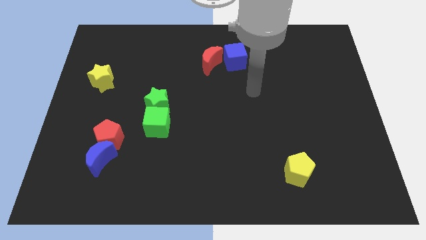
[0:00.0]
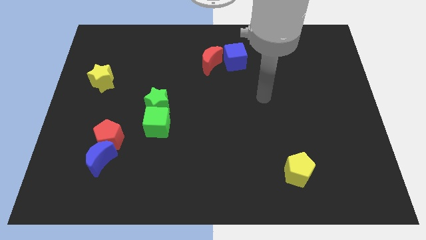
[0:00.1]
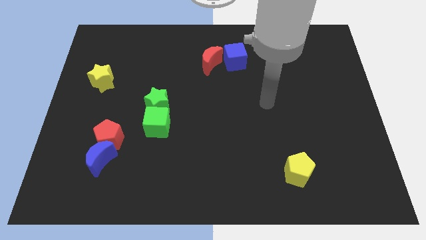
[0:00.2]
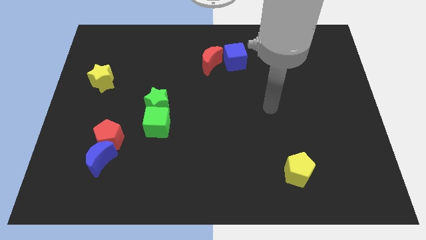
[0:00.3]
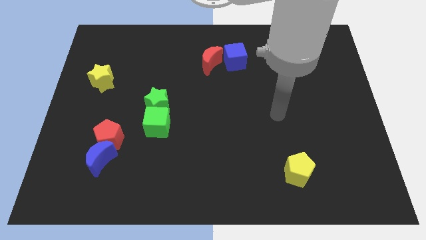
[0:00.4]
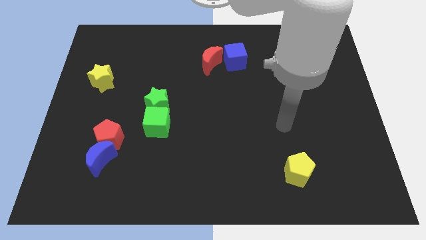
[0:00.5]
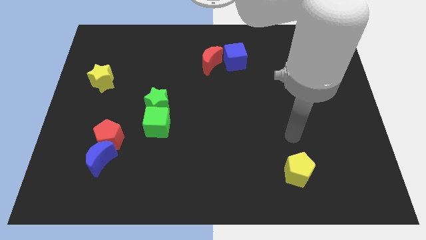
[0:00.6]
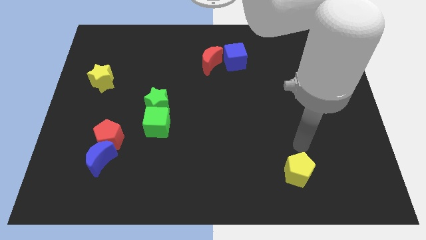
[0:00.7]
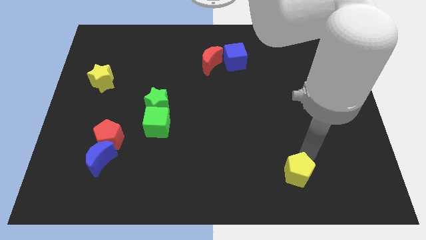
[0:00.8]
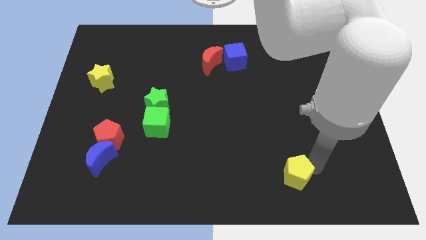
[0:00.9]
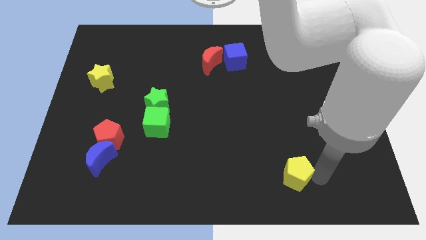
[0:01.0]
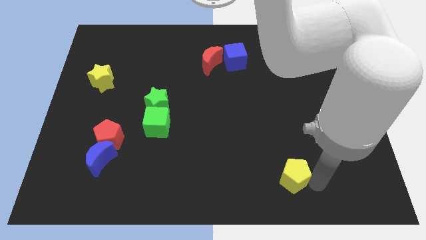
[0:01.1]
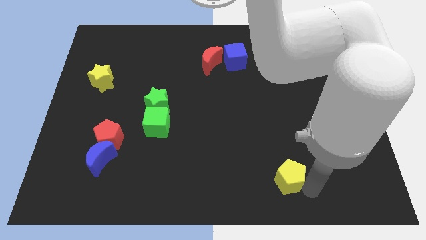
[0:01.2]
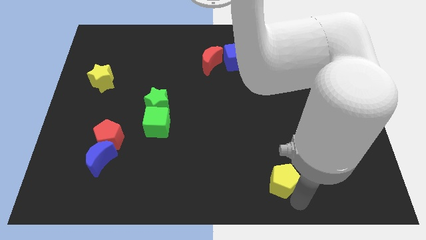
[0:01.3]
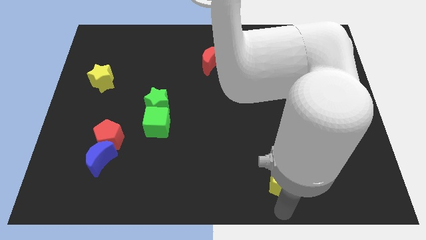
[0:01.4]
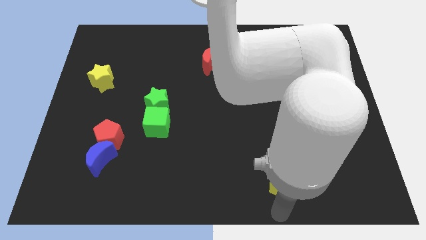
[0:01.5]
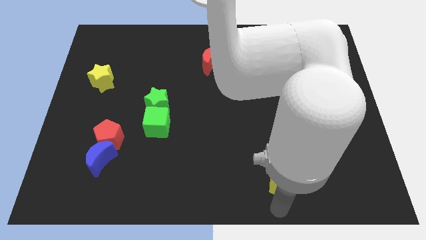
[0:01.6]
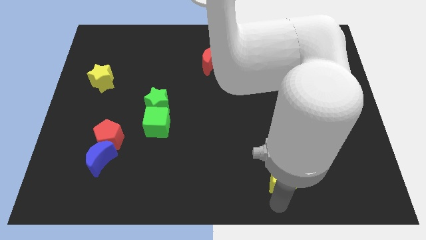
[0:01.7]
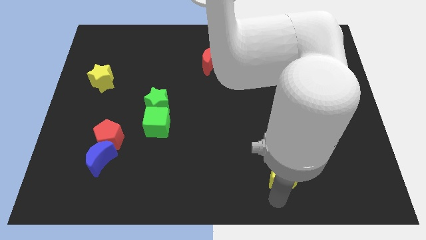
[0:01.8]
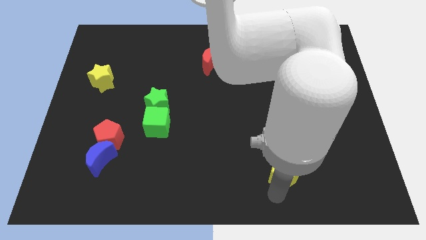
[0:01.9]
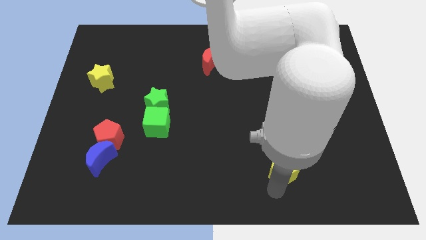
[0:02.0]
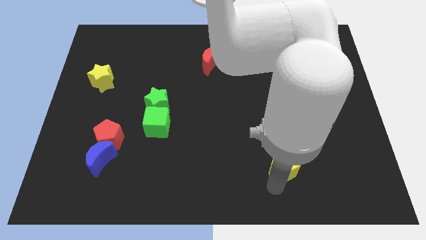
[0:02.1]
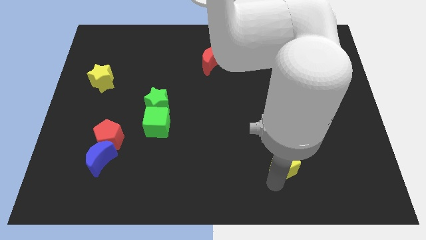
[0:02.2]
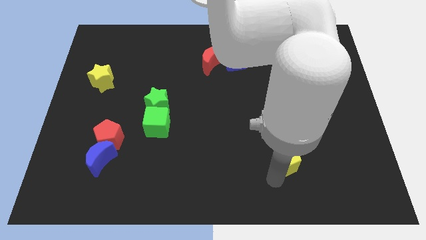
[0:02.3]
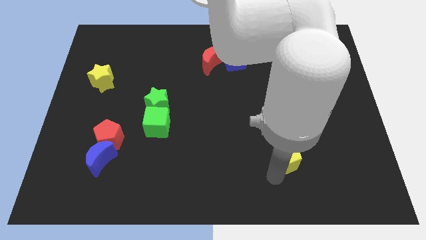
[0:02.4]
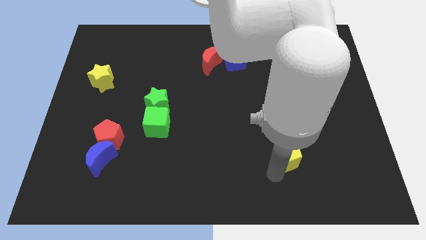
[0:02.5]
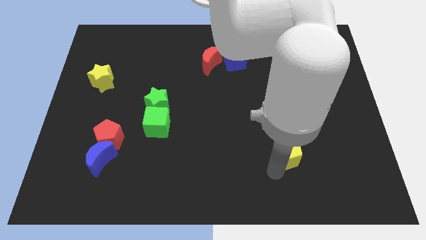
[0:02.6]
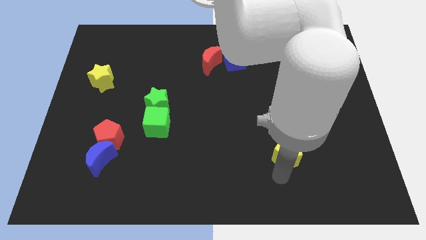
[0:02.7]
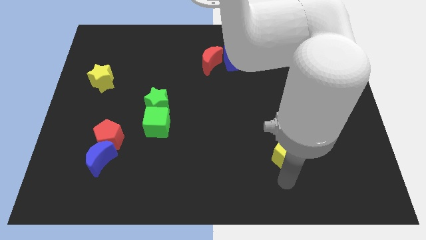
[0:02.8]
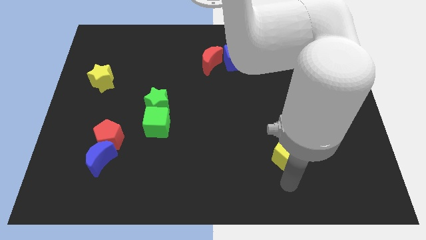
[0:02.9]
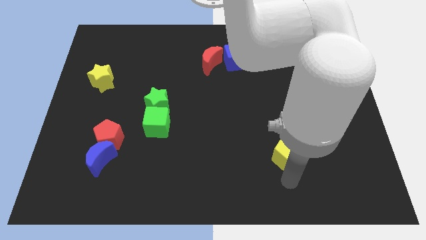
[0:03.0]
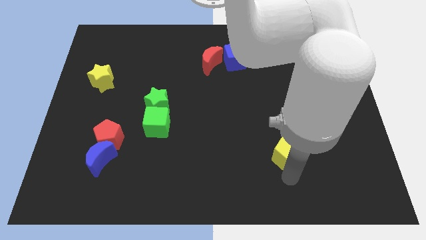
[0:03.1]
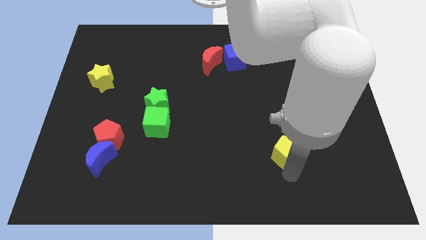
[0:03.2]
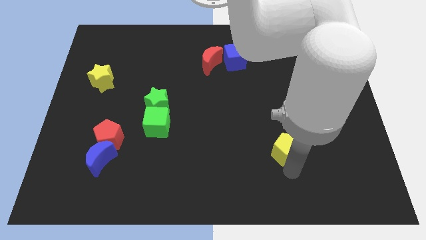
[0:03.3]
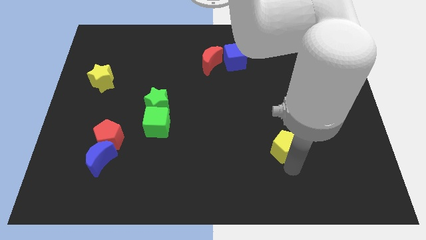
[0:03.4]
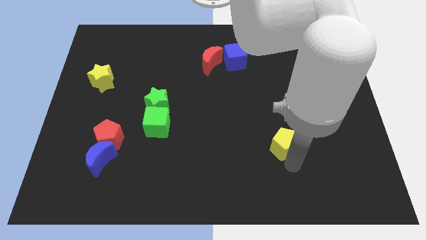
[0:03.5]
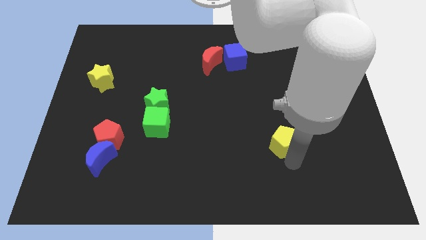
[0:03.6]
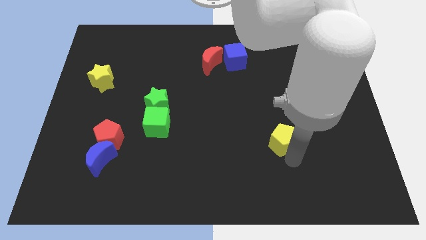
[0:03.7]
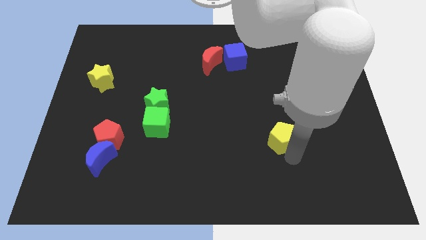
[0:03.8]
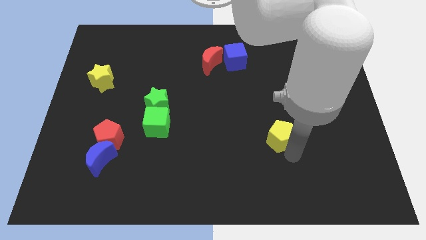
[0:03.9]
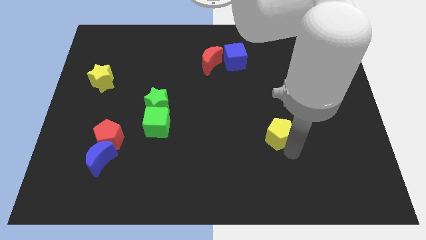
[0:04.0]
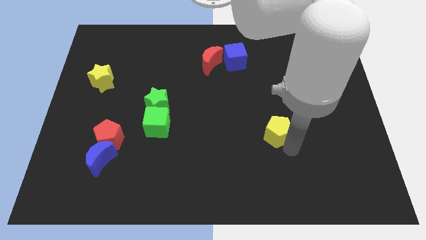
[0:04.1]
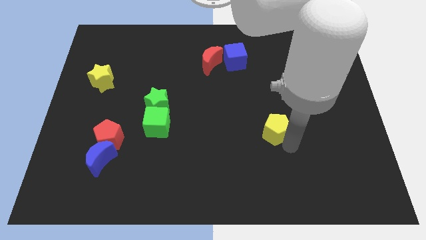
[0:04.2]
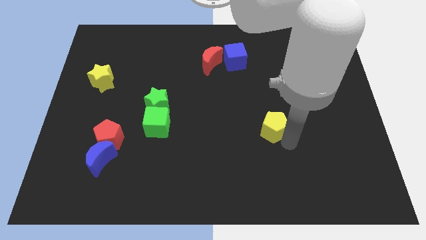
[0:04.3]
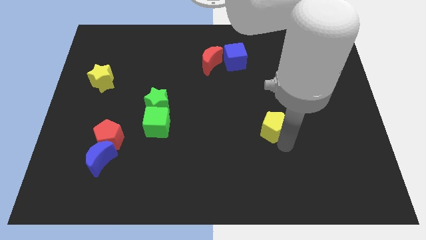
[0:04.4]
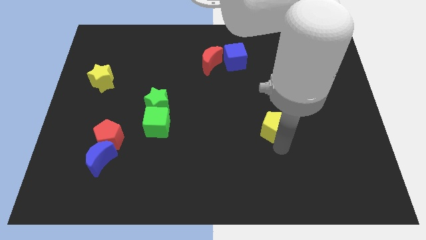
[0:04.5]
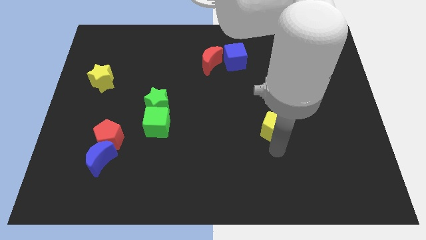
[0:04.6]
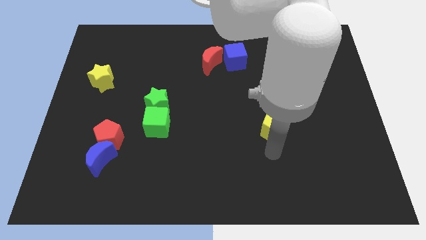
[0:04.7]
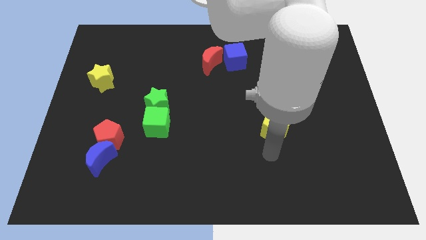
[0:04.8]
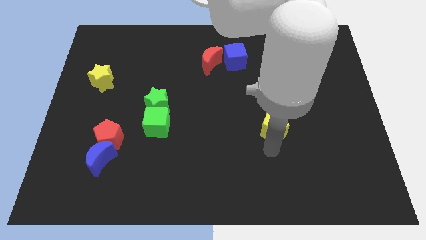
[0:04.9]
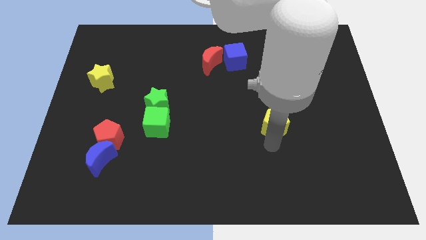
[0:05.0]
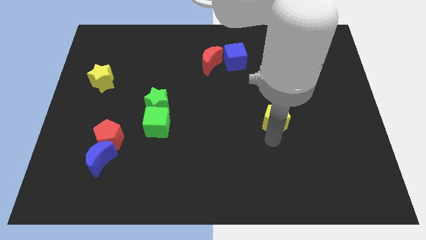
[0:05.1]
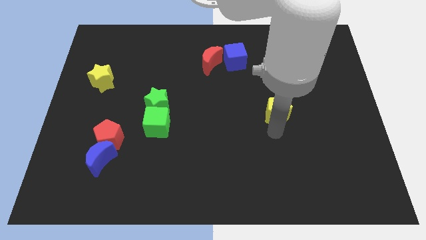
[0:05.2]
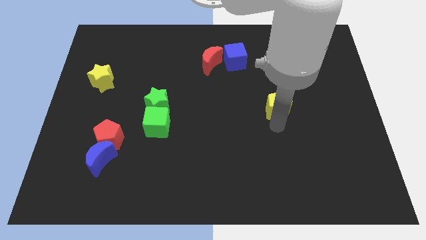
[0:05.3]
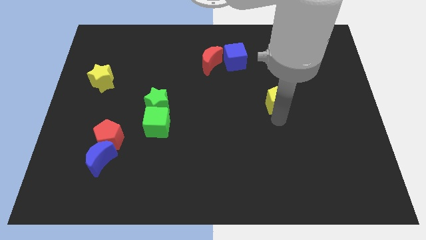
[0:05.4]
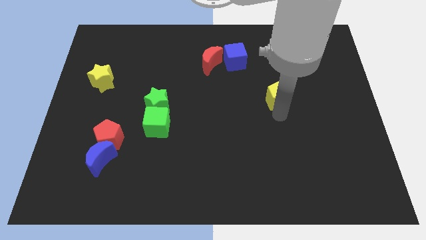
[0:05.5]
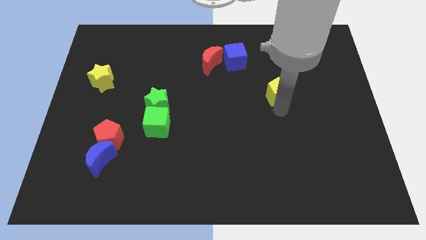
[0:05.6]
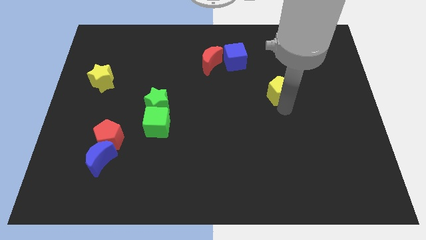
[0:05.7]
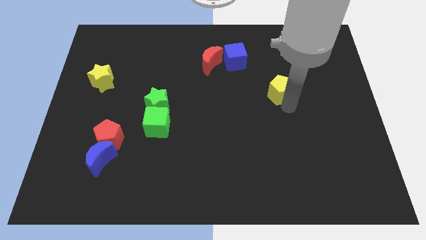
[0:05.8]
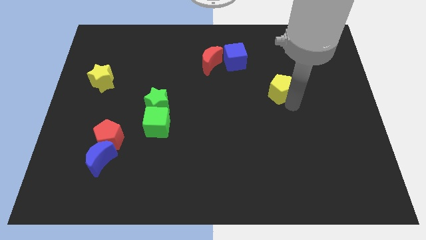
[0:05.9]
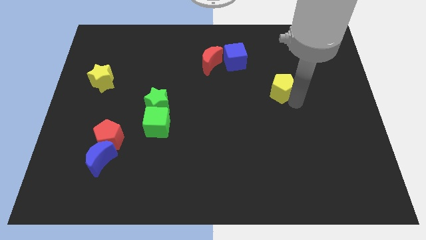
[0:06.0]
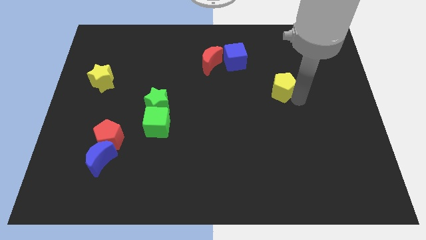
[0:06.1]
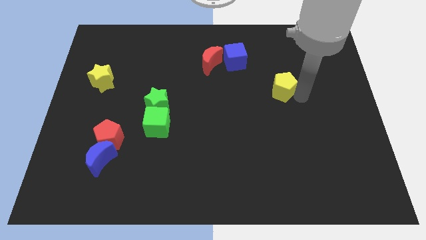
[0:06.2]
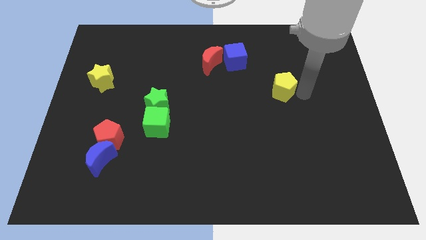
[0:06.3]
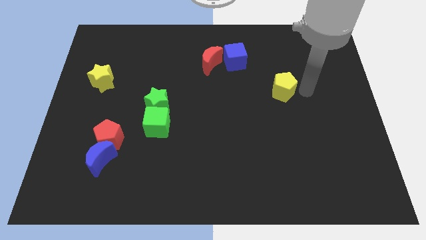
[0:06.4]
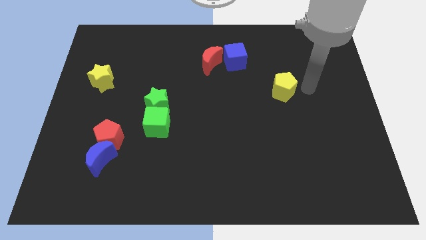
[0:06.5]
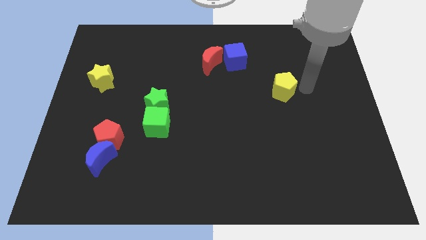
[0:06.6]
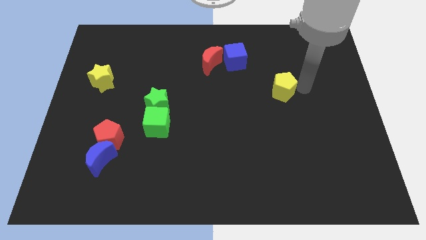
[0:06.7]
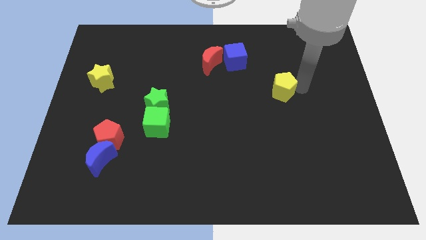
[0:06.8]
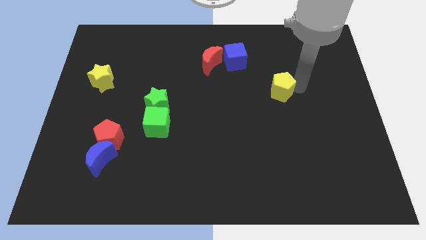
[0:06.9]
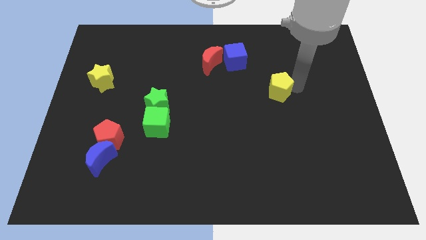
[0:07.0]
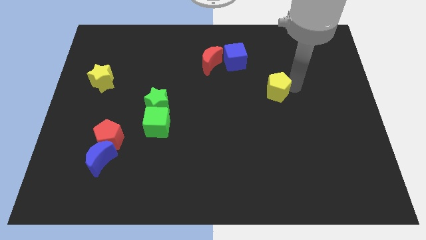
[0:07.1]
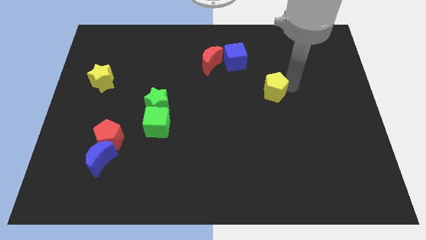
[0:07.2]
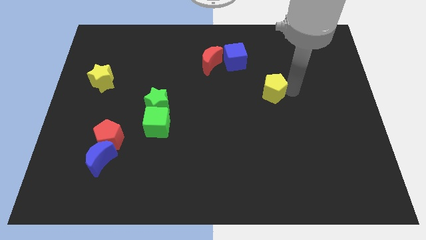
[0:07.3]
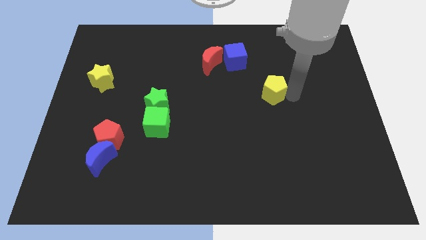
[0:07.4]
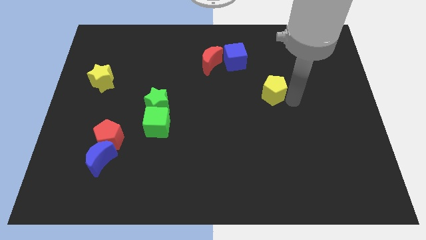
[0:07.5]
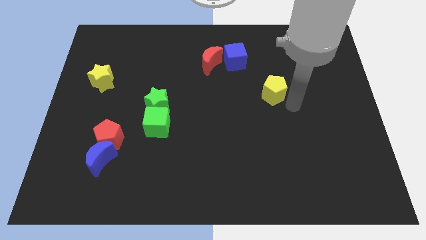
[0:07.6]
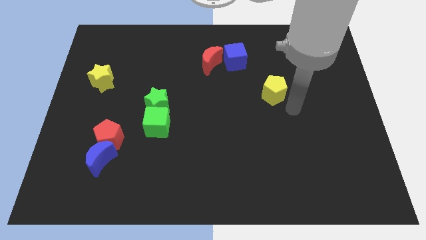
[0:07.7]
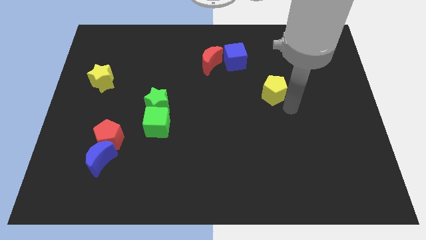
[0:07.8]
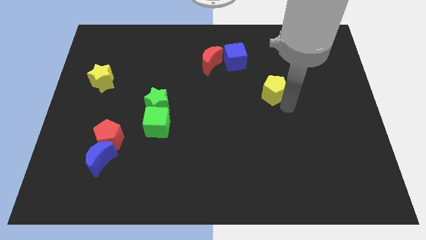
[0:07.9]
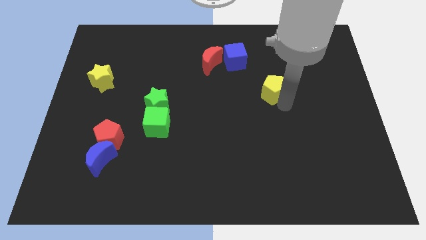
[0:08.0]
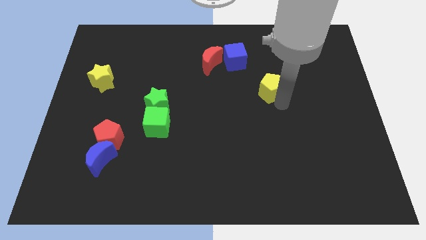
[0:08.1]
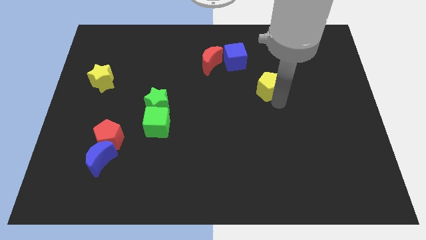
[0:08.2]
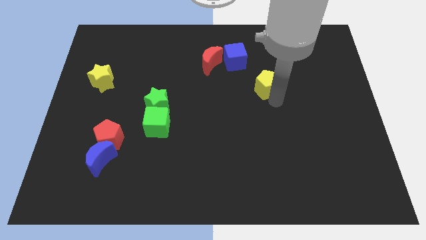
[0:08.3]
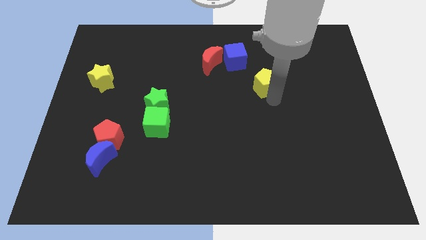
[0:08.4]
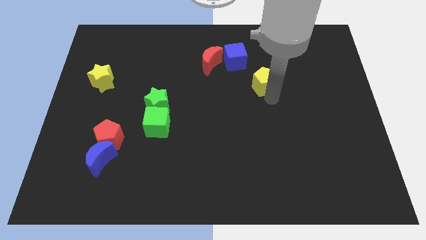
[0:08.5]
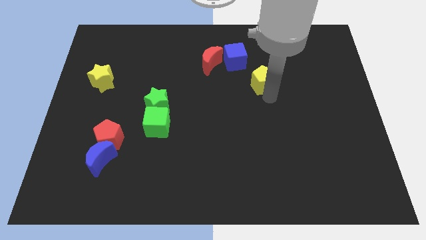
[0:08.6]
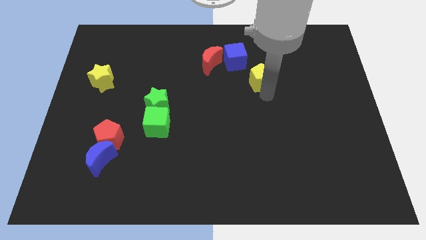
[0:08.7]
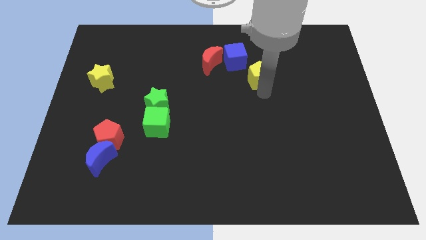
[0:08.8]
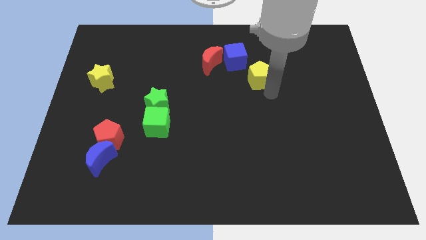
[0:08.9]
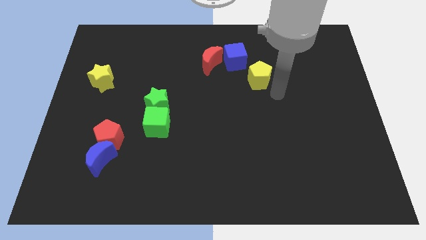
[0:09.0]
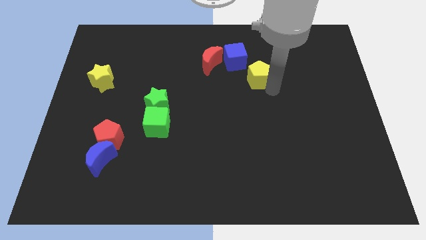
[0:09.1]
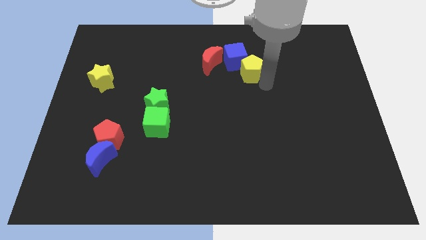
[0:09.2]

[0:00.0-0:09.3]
push the yellow pentagon to the blue cube
